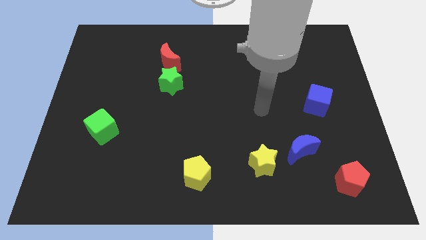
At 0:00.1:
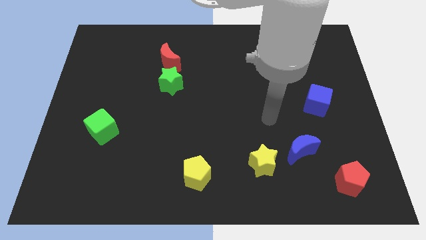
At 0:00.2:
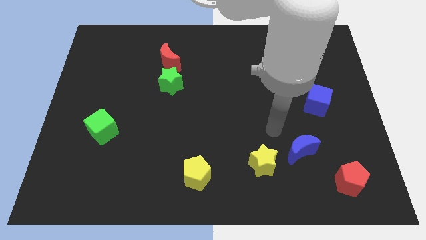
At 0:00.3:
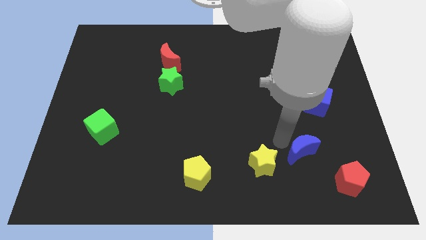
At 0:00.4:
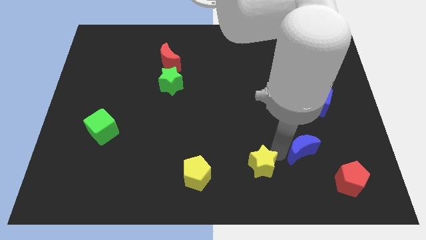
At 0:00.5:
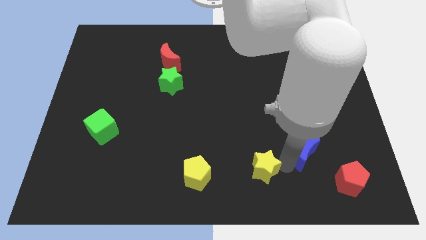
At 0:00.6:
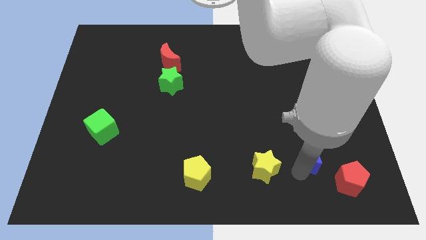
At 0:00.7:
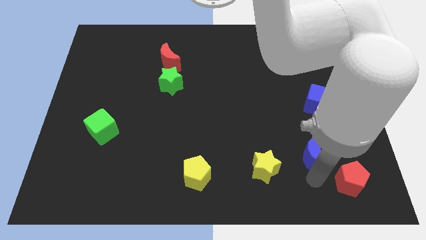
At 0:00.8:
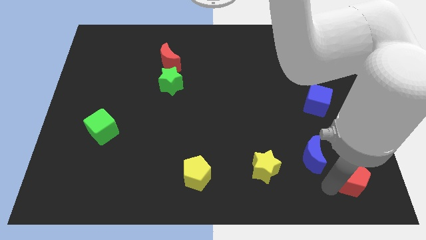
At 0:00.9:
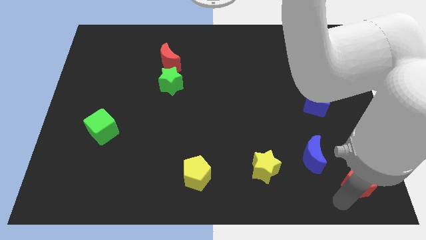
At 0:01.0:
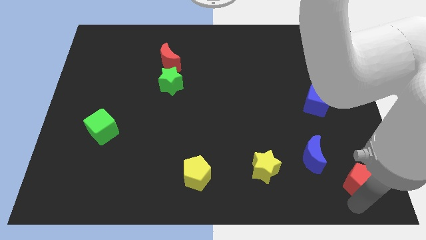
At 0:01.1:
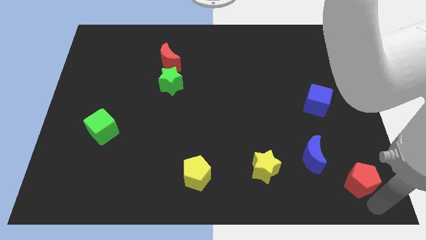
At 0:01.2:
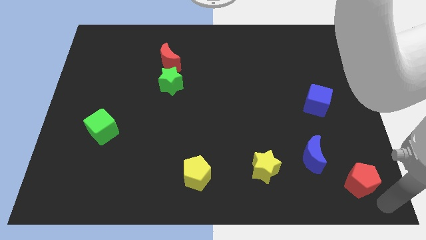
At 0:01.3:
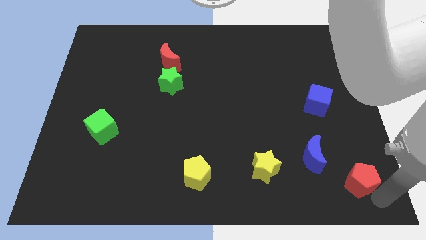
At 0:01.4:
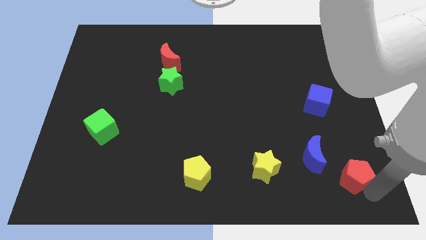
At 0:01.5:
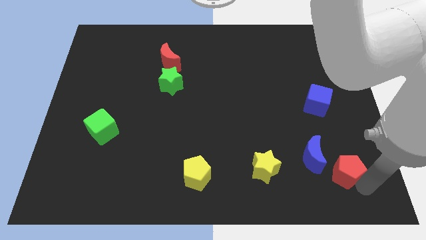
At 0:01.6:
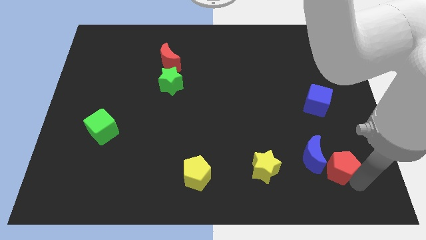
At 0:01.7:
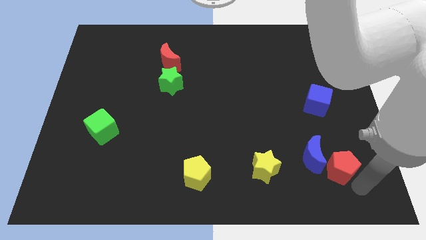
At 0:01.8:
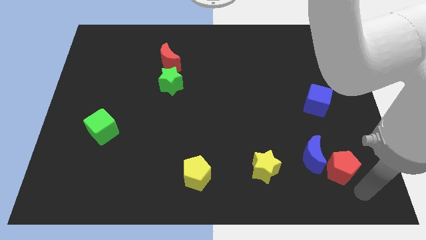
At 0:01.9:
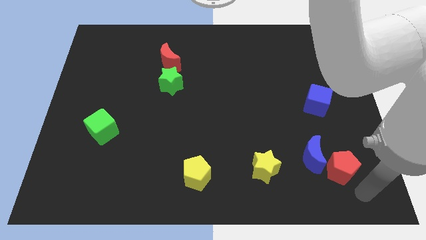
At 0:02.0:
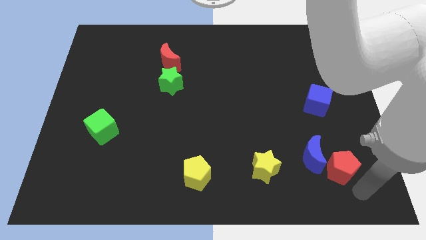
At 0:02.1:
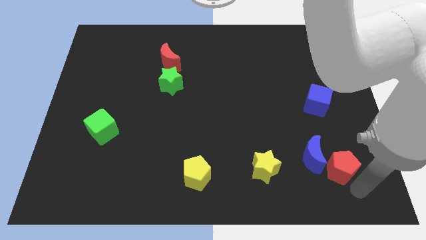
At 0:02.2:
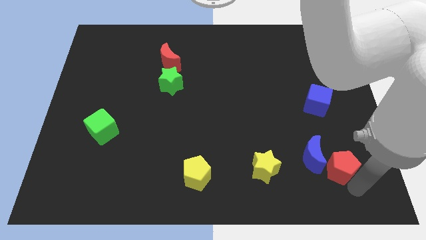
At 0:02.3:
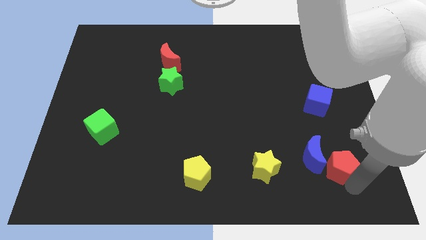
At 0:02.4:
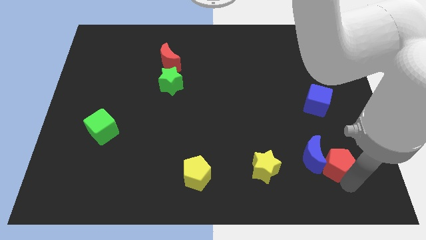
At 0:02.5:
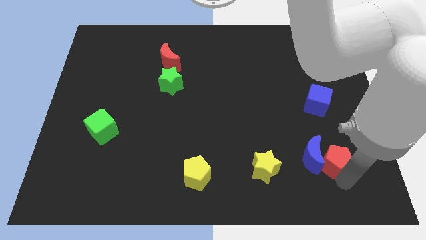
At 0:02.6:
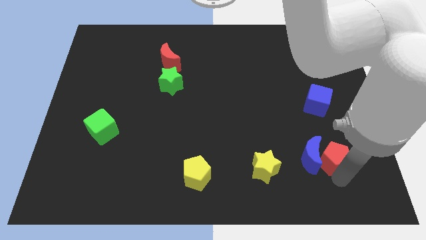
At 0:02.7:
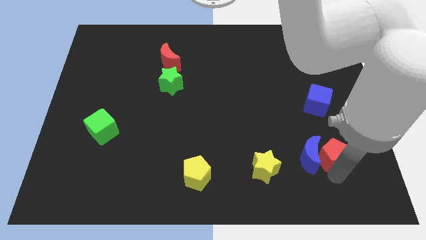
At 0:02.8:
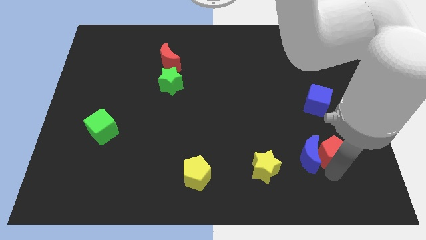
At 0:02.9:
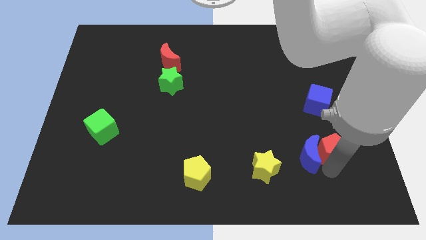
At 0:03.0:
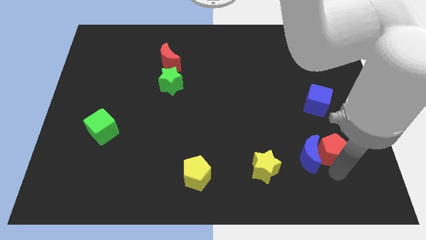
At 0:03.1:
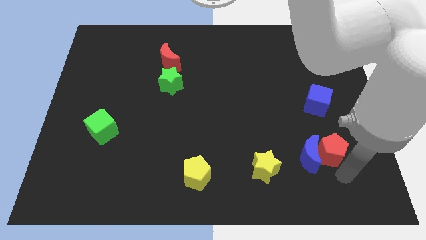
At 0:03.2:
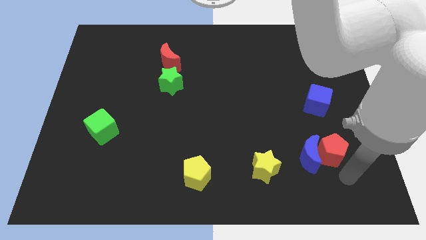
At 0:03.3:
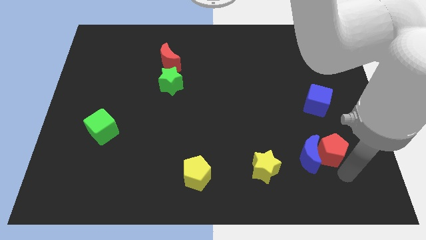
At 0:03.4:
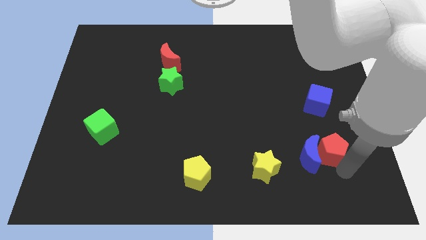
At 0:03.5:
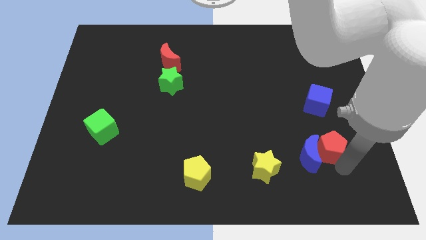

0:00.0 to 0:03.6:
push the red pentagon upwards and to the left somewhat

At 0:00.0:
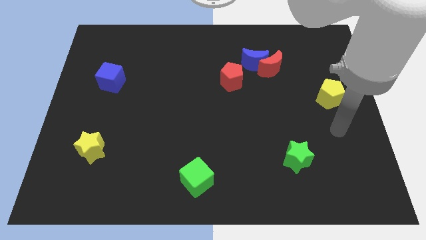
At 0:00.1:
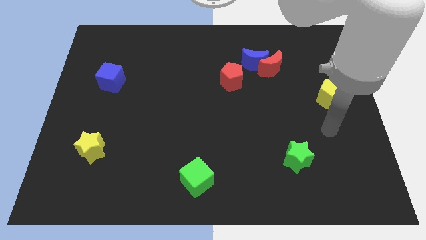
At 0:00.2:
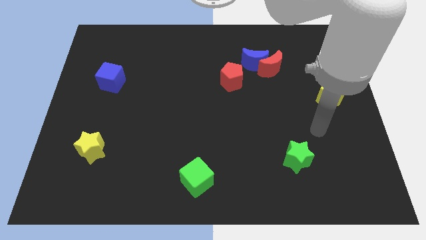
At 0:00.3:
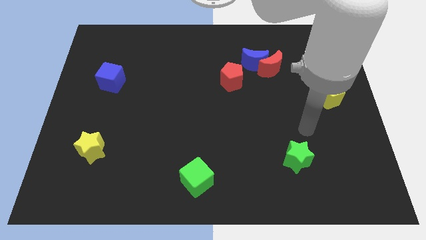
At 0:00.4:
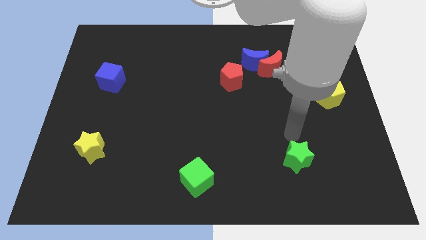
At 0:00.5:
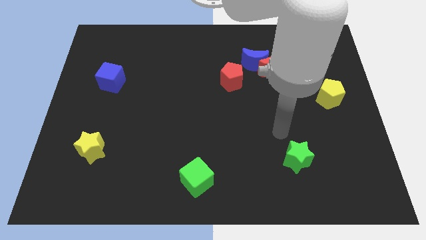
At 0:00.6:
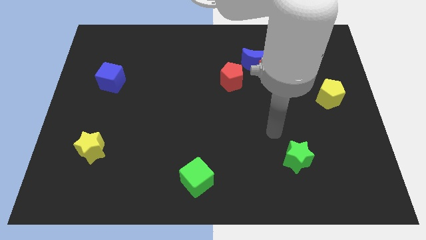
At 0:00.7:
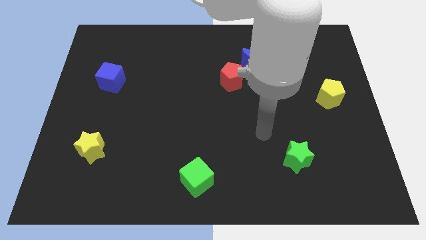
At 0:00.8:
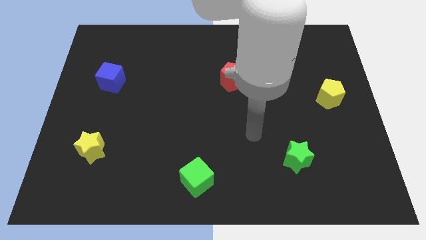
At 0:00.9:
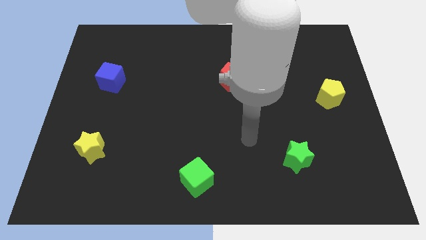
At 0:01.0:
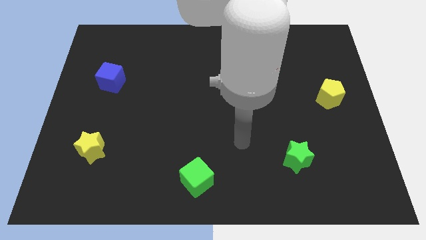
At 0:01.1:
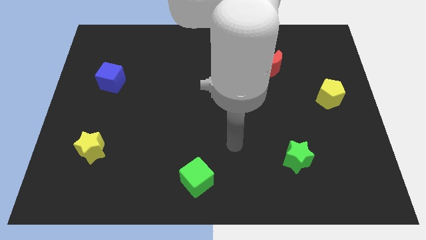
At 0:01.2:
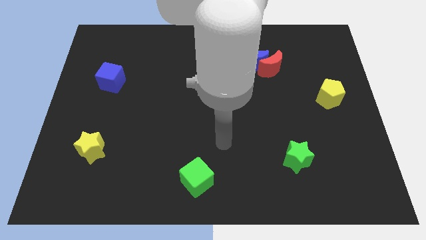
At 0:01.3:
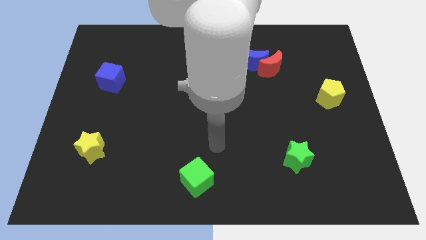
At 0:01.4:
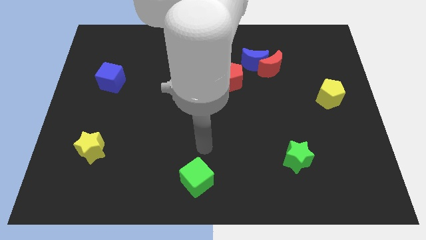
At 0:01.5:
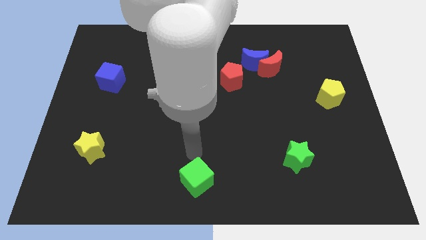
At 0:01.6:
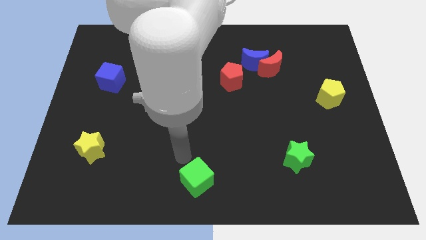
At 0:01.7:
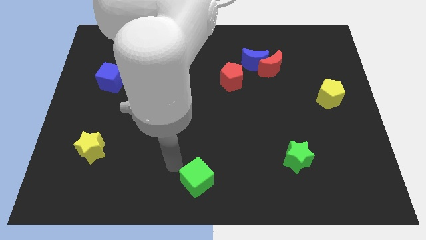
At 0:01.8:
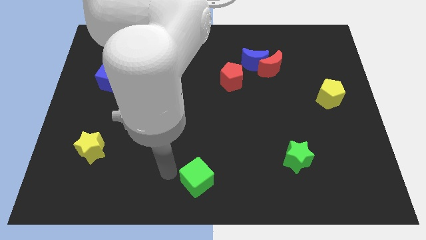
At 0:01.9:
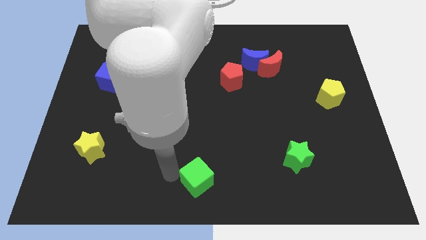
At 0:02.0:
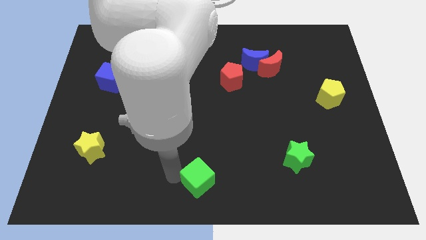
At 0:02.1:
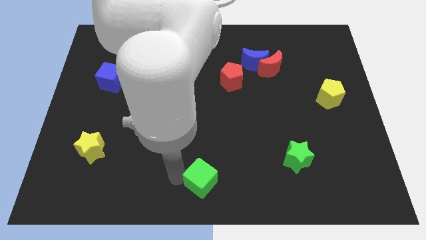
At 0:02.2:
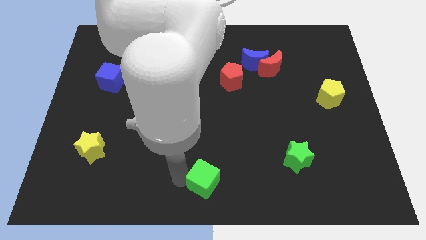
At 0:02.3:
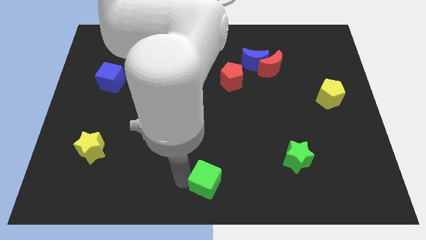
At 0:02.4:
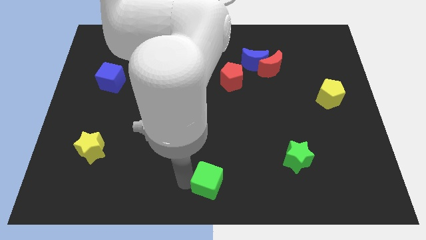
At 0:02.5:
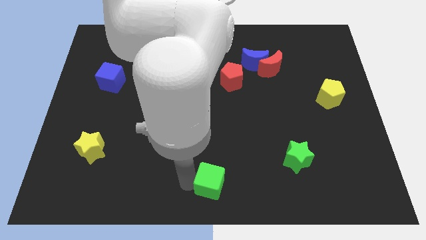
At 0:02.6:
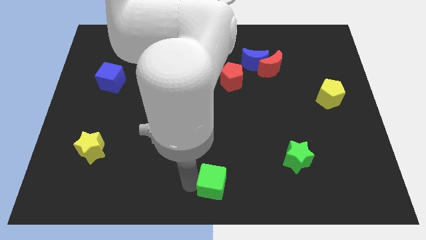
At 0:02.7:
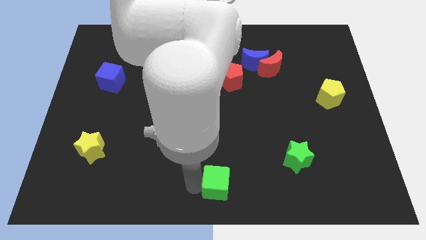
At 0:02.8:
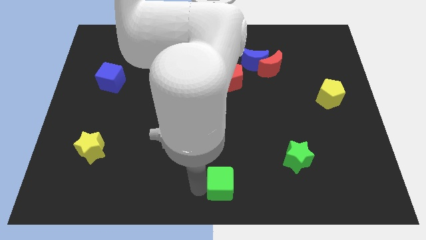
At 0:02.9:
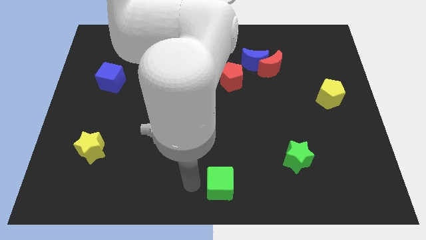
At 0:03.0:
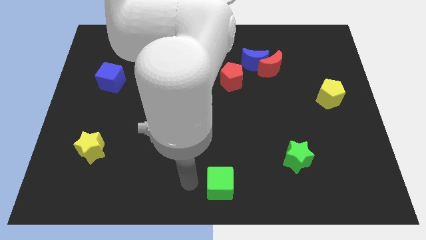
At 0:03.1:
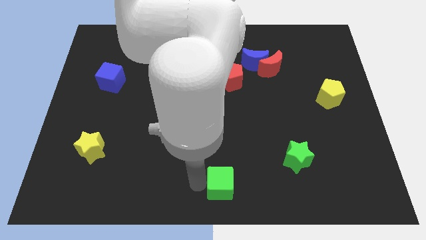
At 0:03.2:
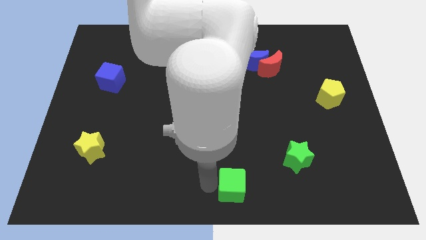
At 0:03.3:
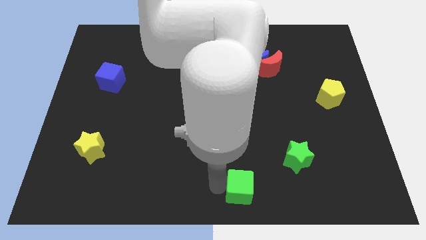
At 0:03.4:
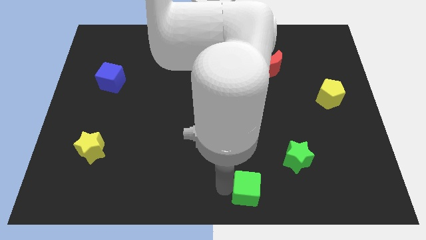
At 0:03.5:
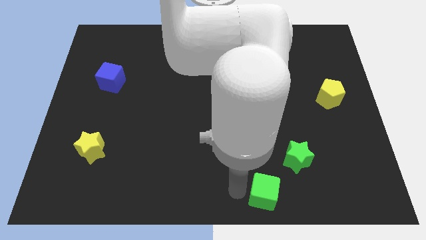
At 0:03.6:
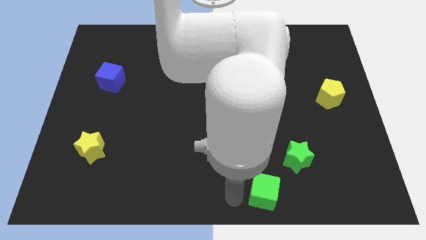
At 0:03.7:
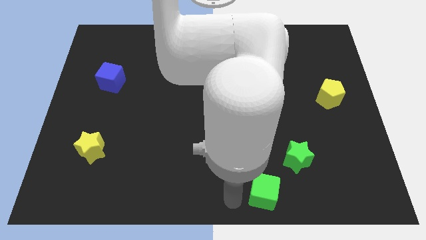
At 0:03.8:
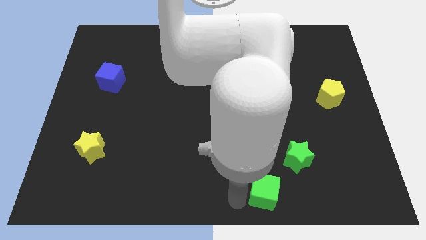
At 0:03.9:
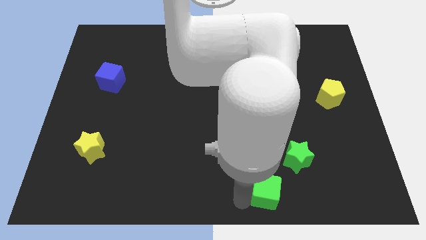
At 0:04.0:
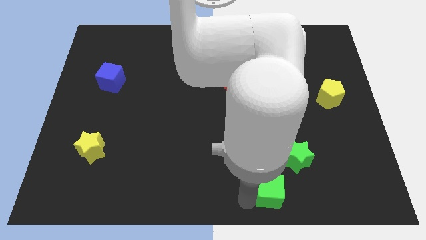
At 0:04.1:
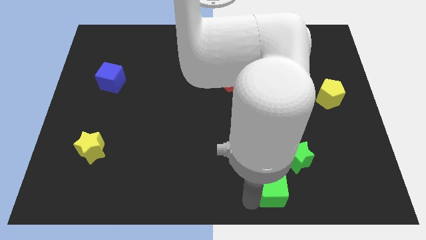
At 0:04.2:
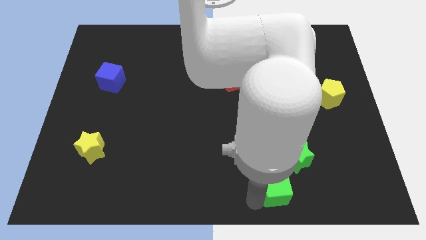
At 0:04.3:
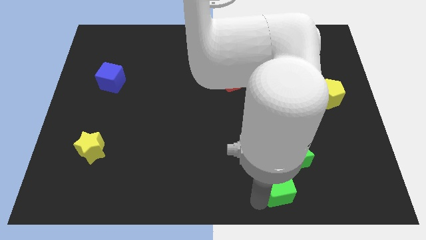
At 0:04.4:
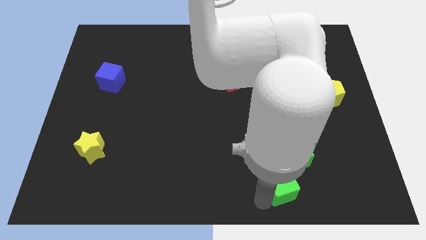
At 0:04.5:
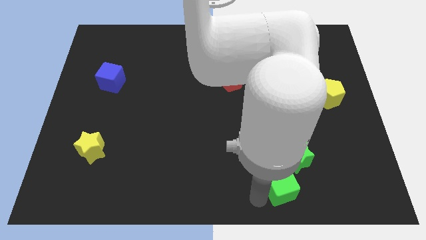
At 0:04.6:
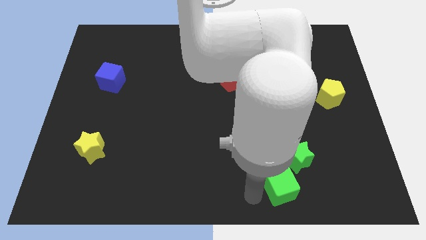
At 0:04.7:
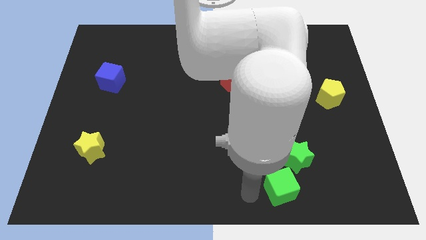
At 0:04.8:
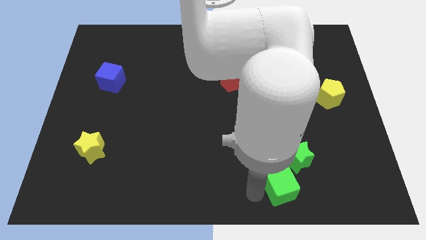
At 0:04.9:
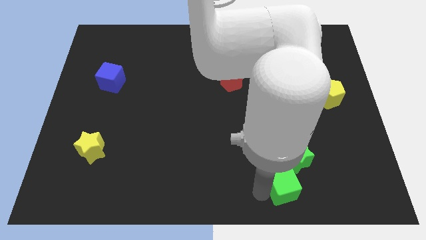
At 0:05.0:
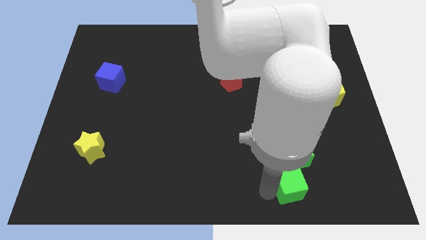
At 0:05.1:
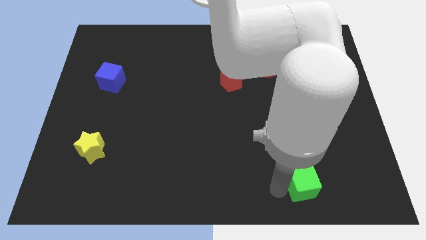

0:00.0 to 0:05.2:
push the green cube to the right
